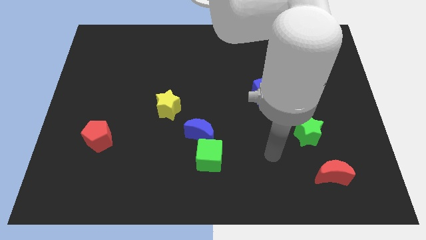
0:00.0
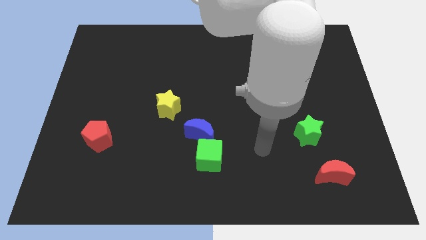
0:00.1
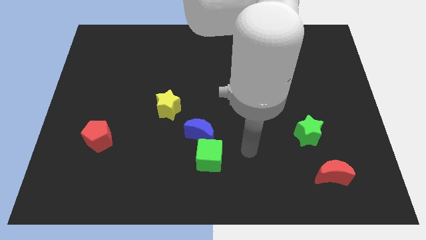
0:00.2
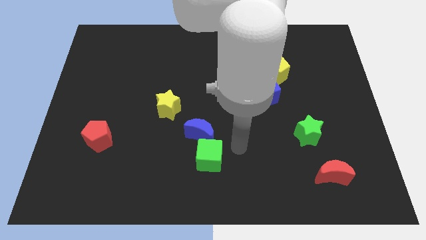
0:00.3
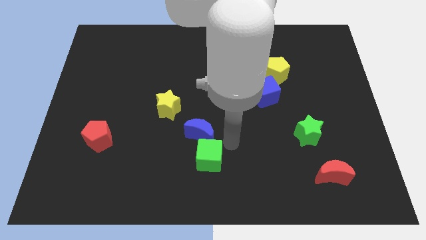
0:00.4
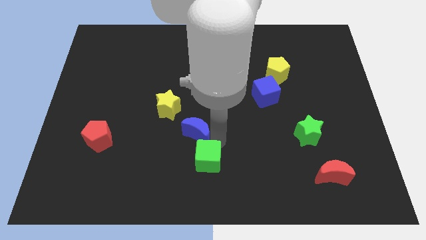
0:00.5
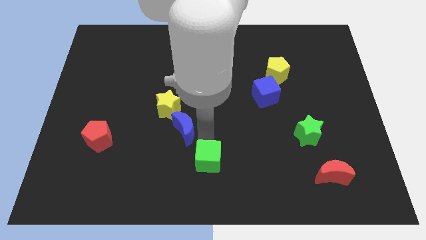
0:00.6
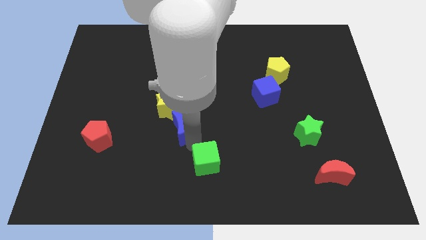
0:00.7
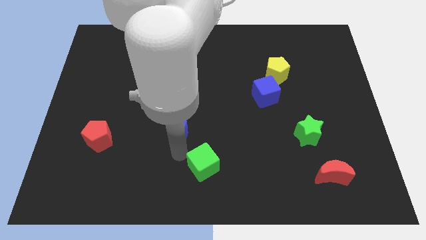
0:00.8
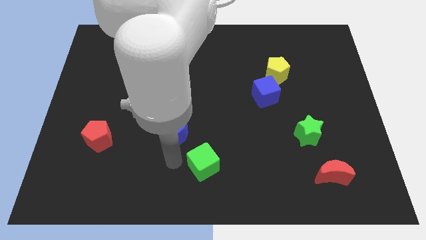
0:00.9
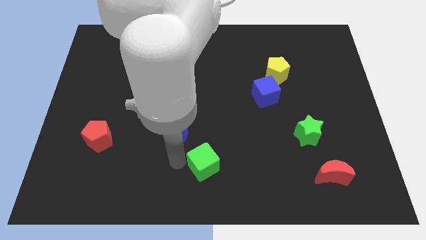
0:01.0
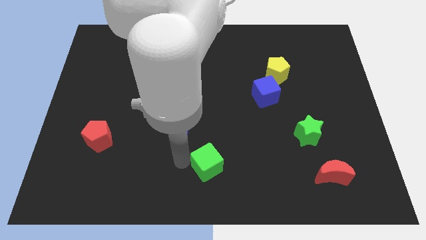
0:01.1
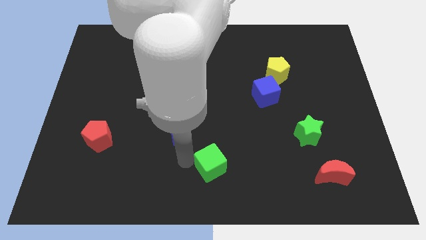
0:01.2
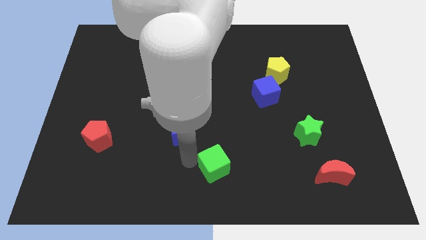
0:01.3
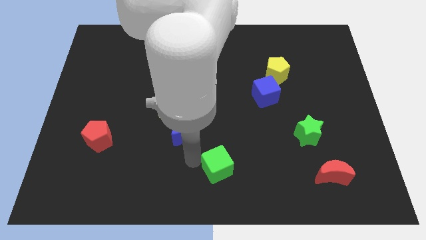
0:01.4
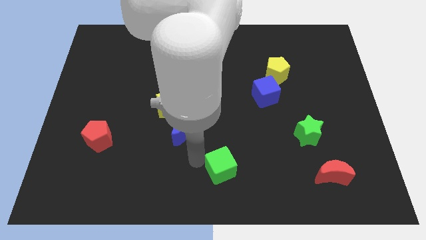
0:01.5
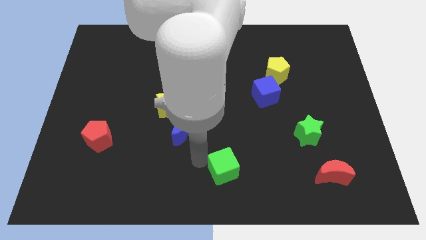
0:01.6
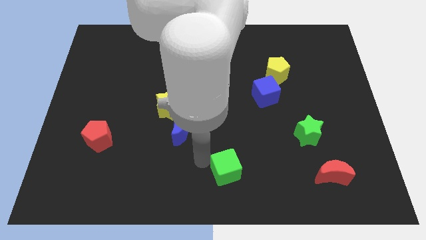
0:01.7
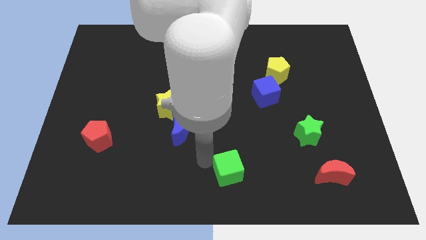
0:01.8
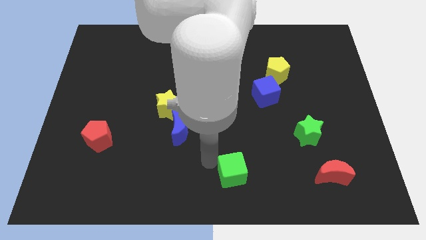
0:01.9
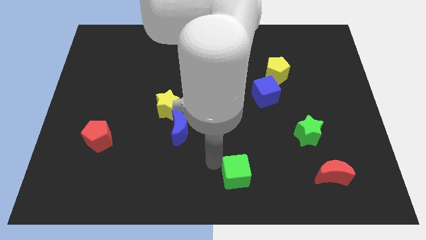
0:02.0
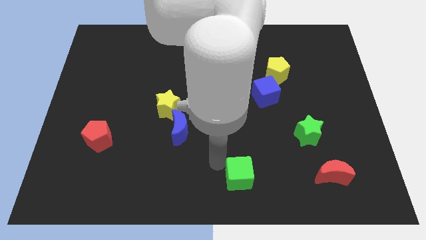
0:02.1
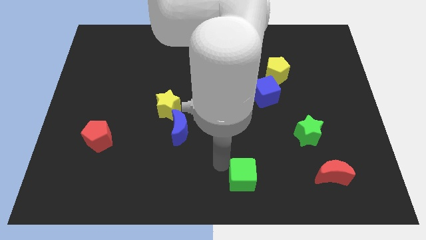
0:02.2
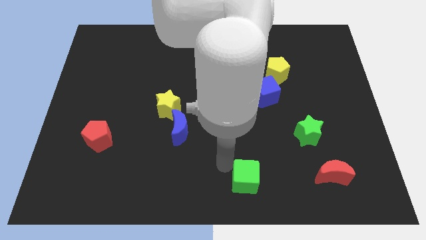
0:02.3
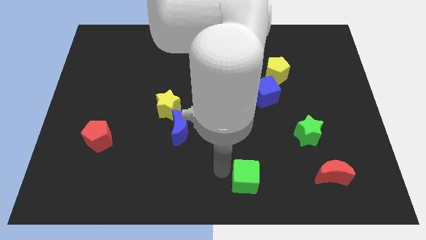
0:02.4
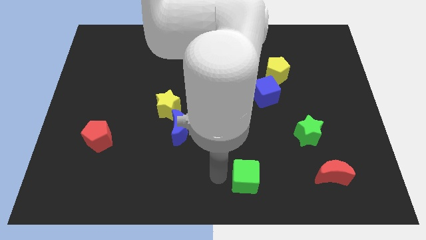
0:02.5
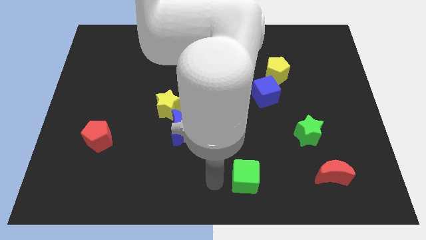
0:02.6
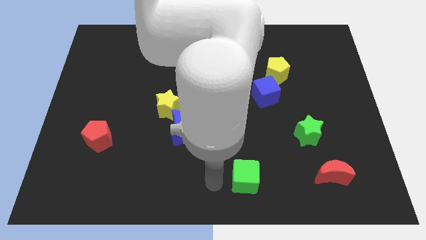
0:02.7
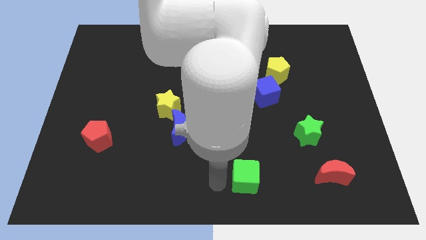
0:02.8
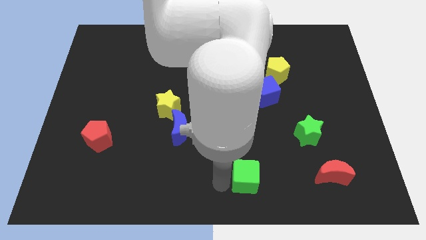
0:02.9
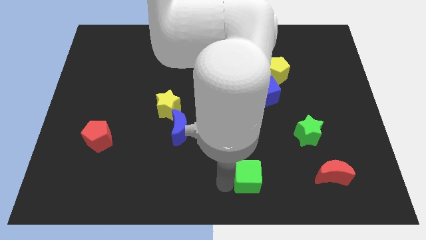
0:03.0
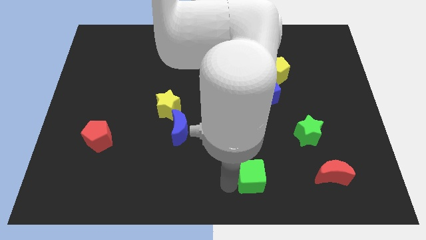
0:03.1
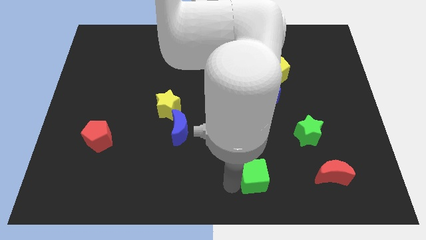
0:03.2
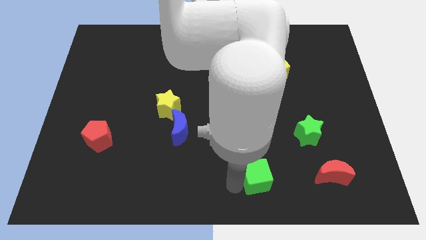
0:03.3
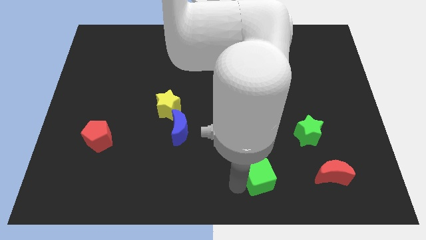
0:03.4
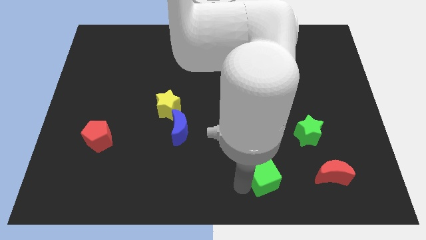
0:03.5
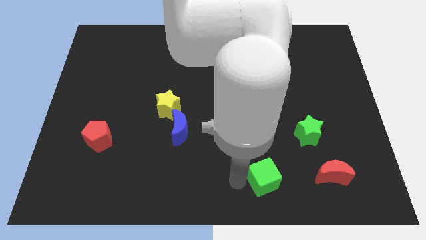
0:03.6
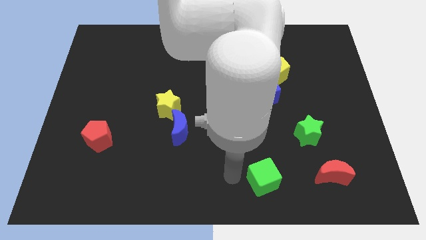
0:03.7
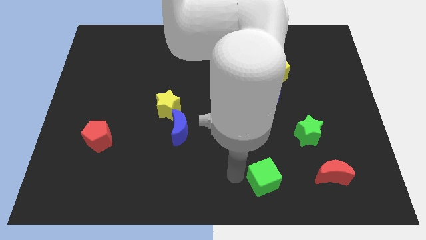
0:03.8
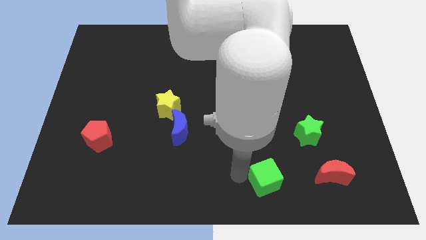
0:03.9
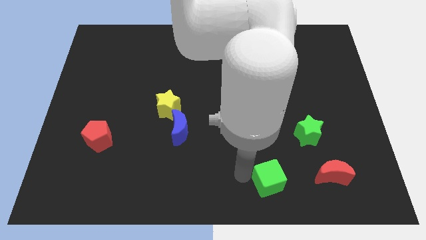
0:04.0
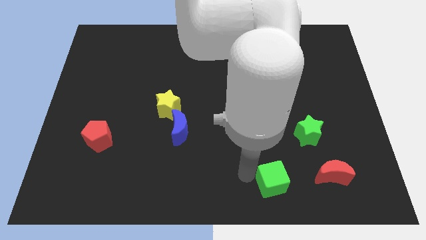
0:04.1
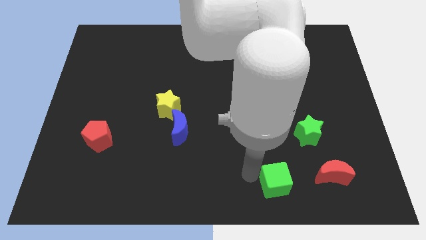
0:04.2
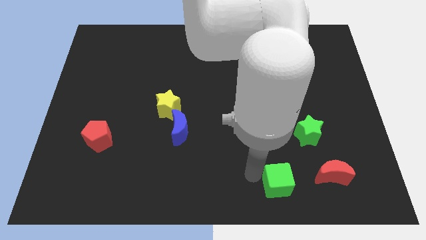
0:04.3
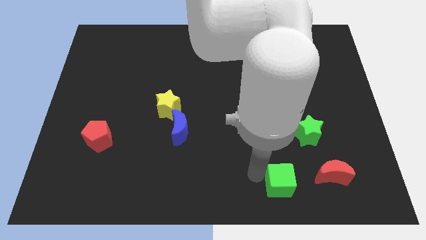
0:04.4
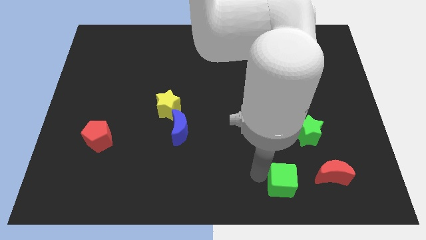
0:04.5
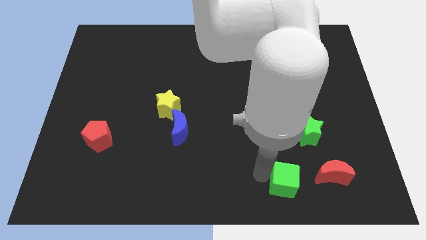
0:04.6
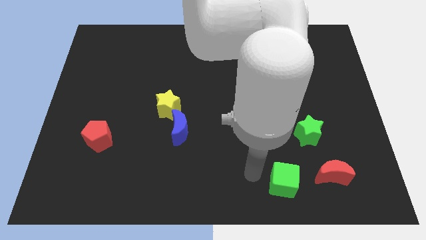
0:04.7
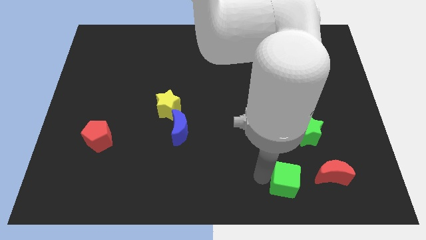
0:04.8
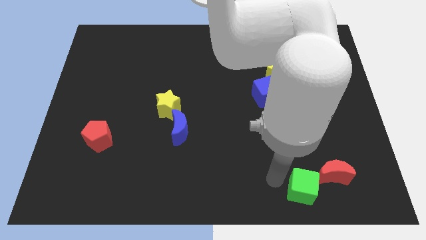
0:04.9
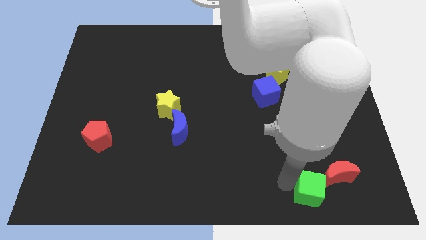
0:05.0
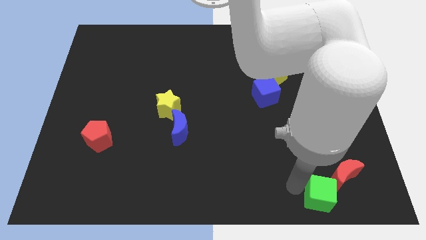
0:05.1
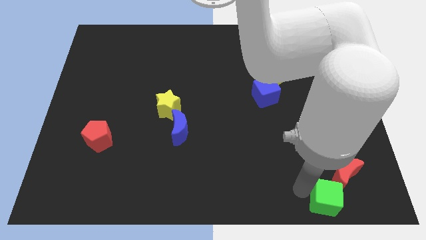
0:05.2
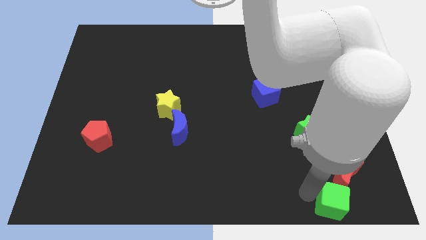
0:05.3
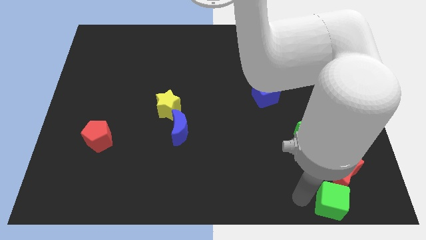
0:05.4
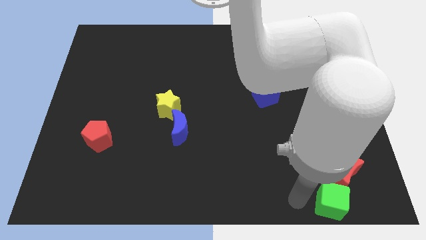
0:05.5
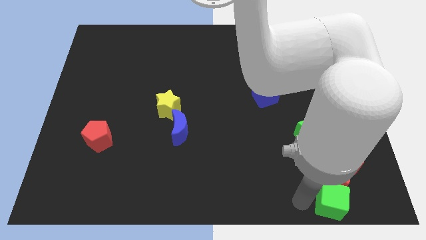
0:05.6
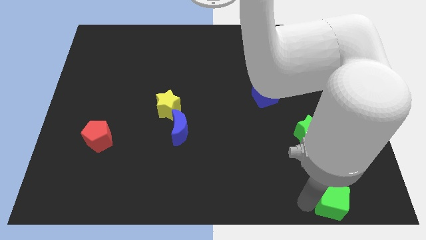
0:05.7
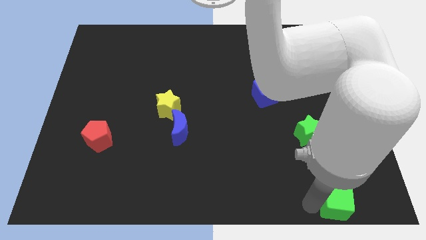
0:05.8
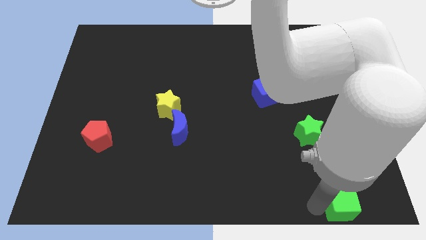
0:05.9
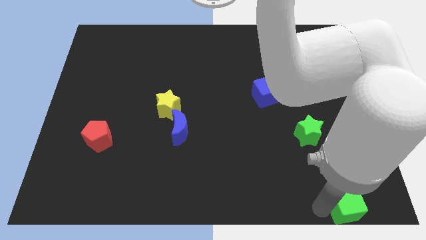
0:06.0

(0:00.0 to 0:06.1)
move the green cube to the bottom right corner
